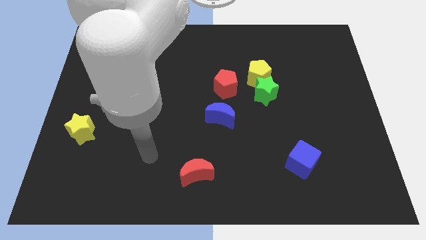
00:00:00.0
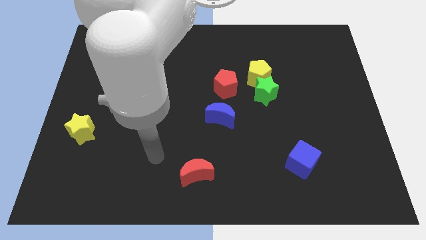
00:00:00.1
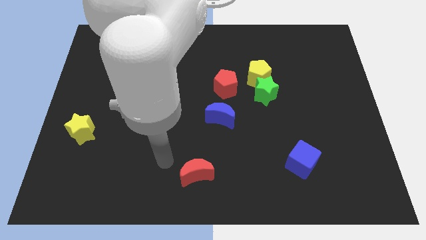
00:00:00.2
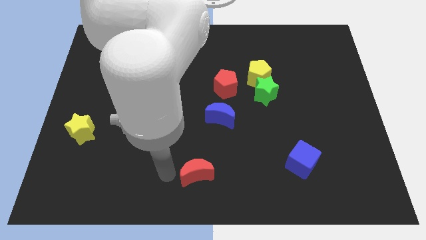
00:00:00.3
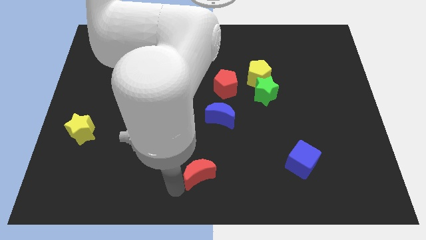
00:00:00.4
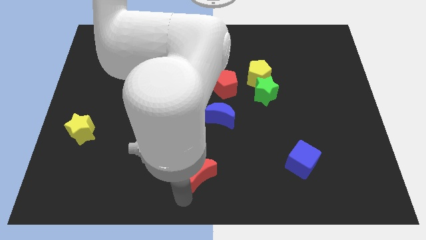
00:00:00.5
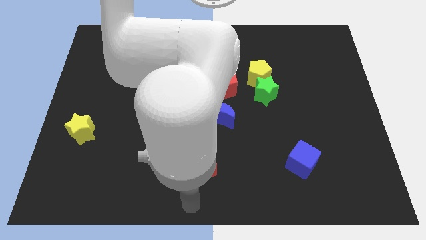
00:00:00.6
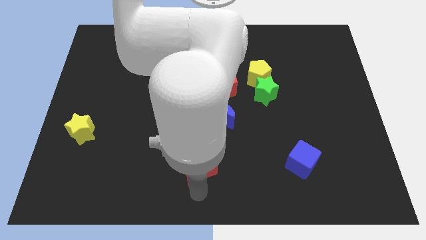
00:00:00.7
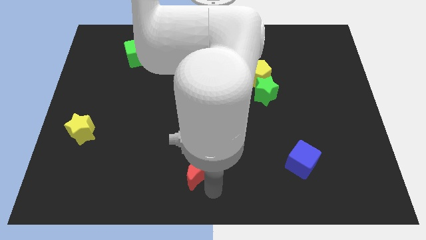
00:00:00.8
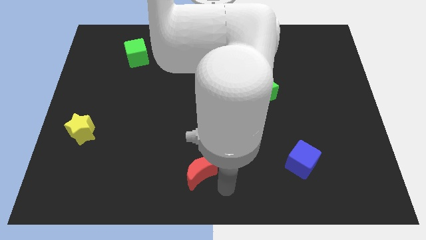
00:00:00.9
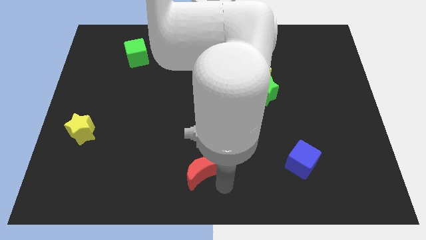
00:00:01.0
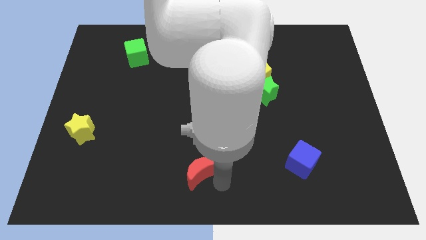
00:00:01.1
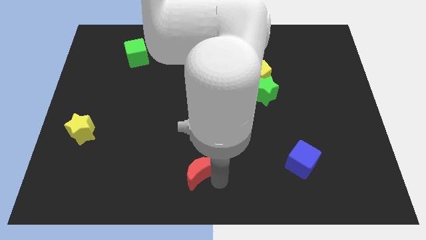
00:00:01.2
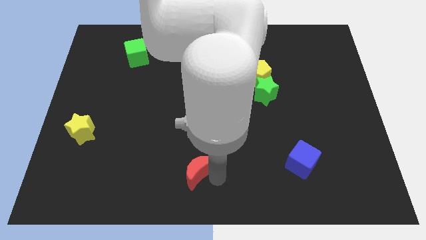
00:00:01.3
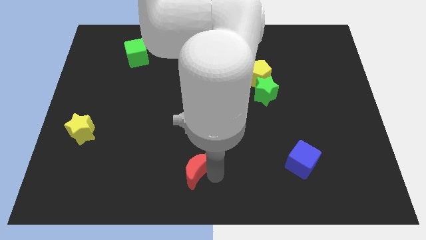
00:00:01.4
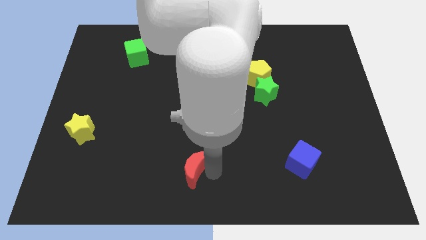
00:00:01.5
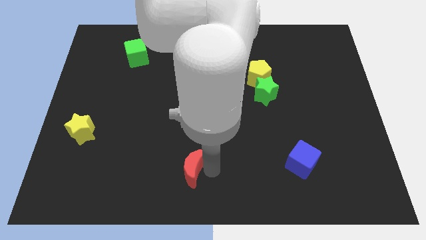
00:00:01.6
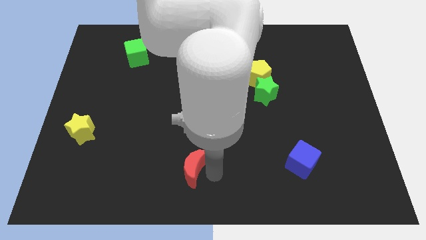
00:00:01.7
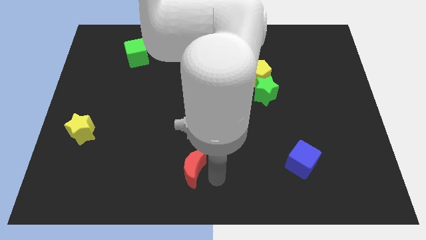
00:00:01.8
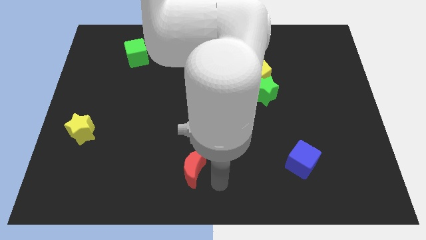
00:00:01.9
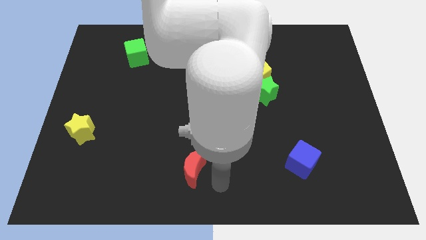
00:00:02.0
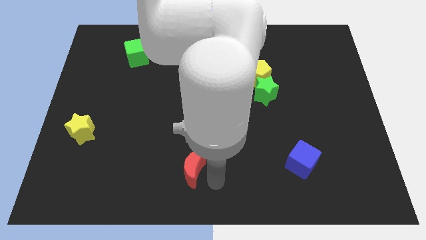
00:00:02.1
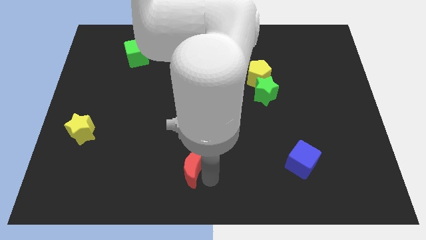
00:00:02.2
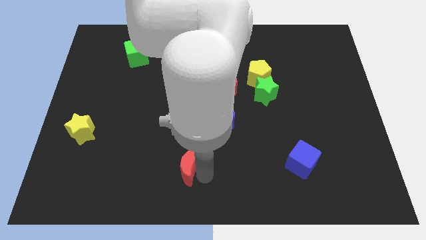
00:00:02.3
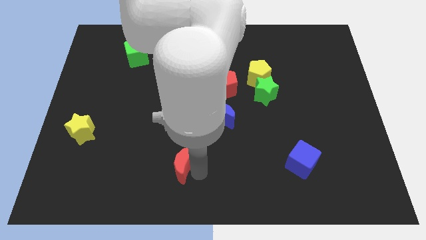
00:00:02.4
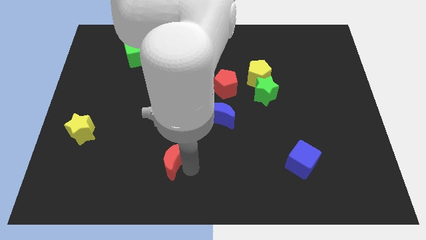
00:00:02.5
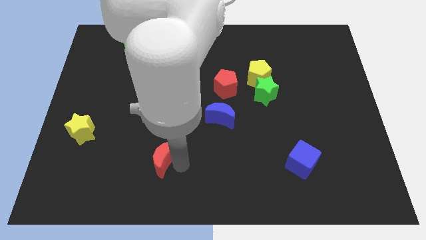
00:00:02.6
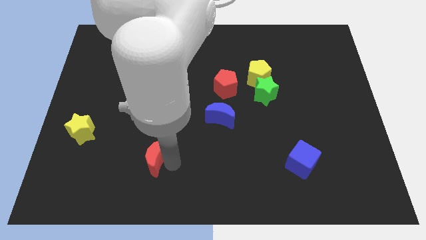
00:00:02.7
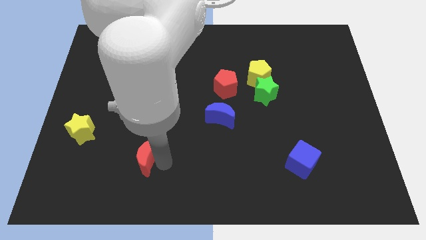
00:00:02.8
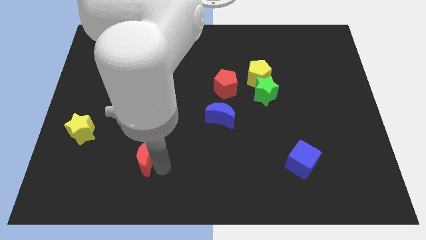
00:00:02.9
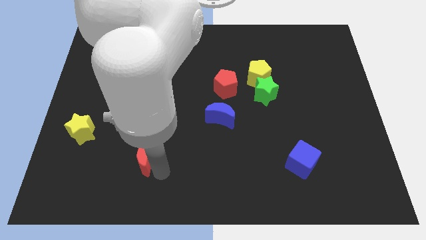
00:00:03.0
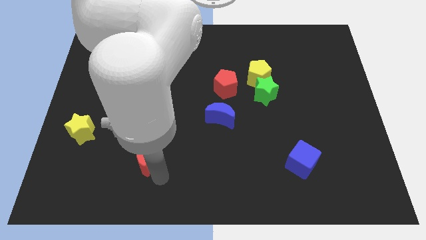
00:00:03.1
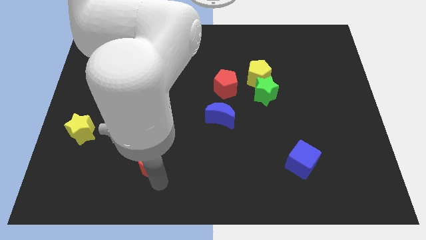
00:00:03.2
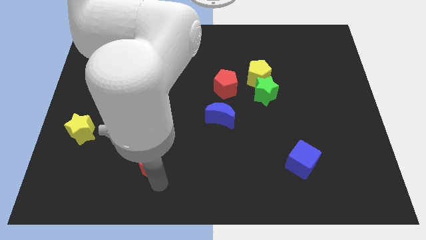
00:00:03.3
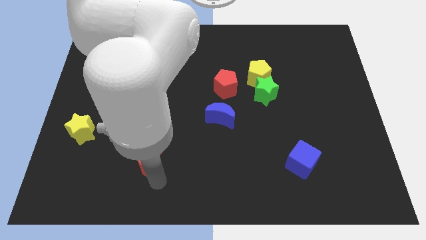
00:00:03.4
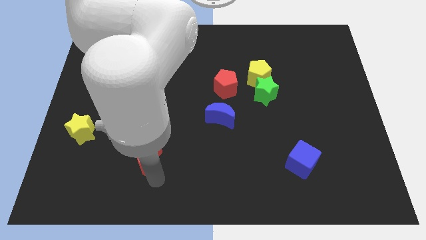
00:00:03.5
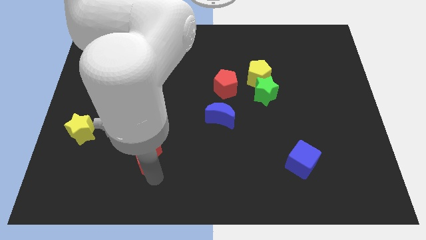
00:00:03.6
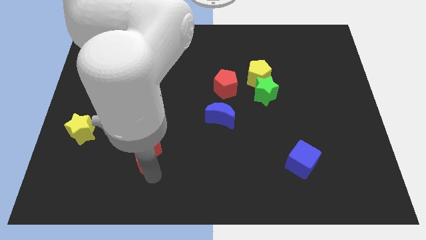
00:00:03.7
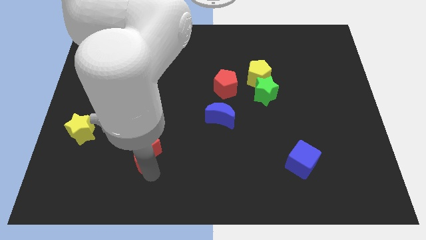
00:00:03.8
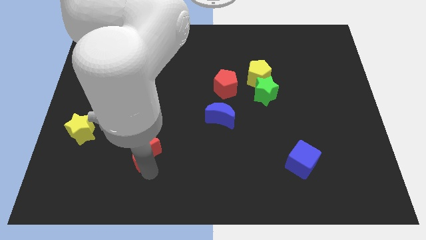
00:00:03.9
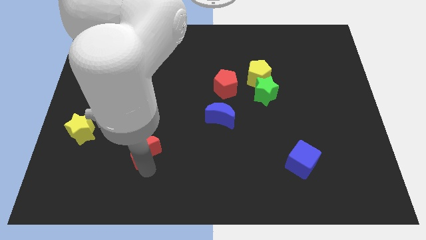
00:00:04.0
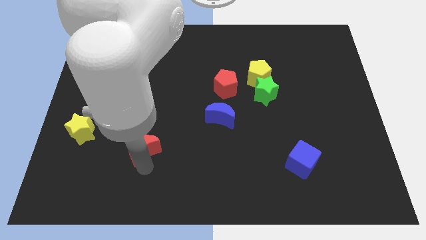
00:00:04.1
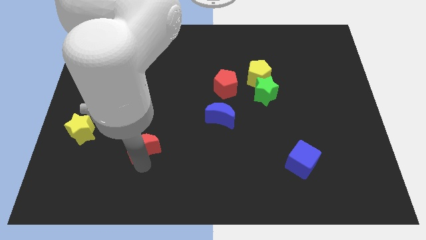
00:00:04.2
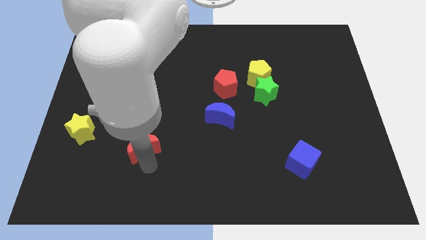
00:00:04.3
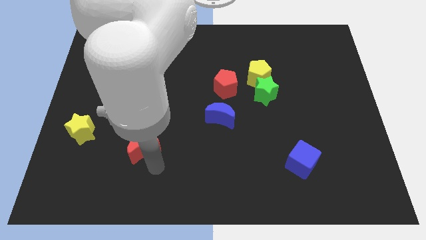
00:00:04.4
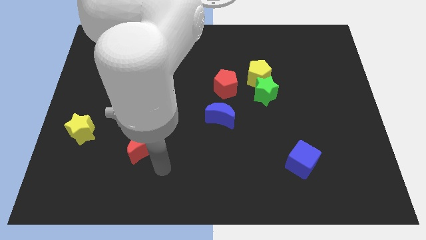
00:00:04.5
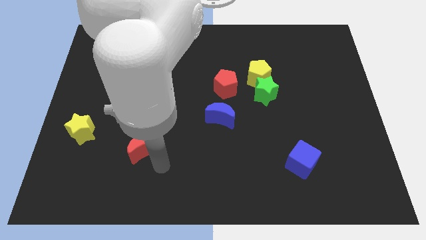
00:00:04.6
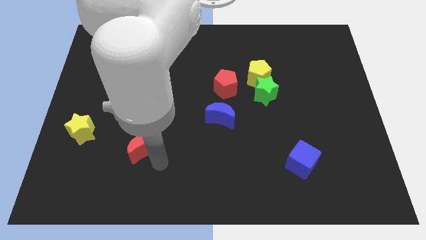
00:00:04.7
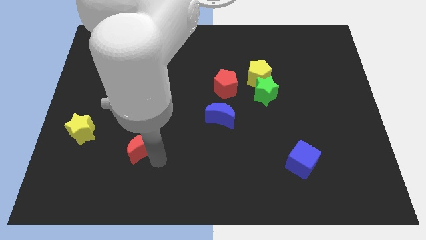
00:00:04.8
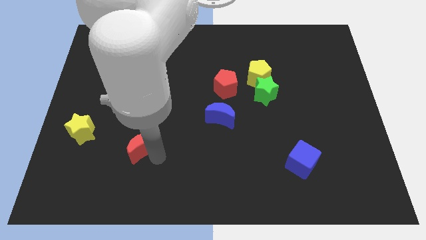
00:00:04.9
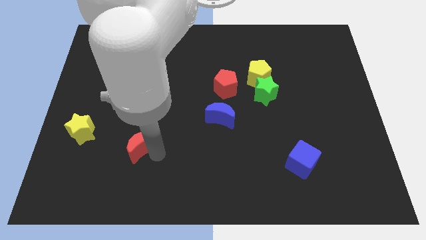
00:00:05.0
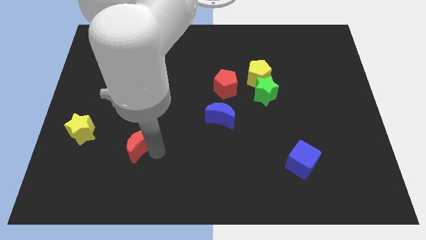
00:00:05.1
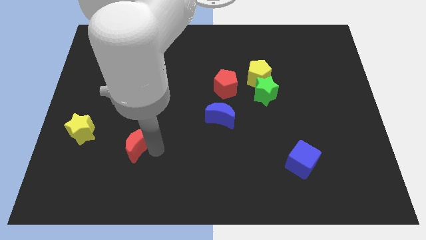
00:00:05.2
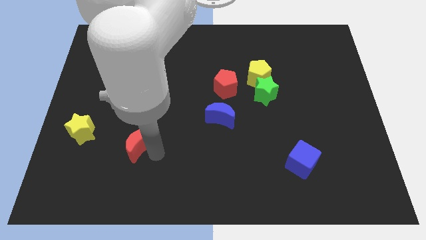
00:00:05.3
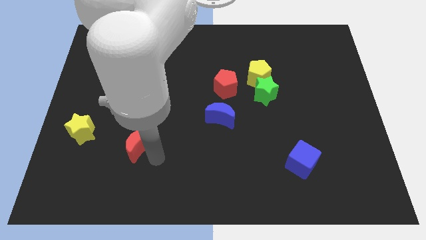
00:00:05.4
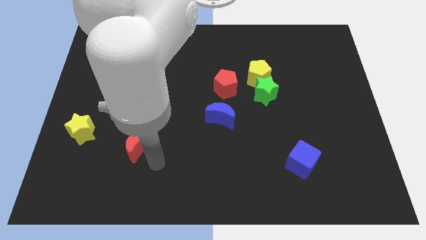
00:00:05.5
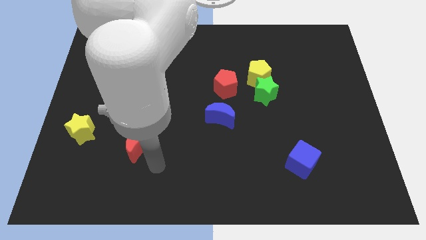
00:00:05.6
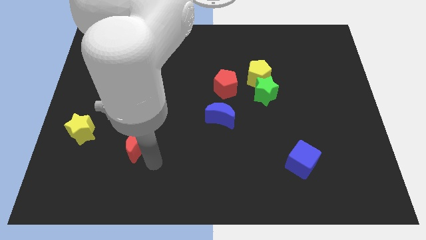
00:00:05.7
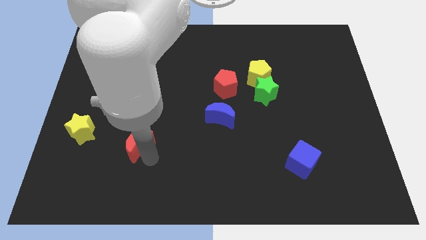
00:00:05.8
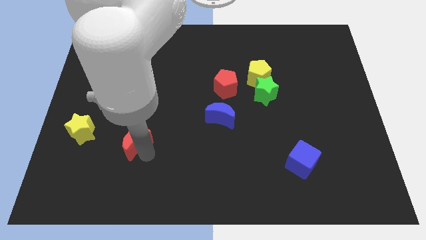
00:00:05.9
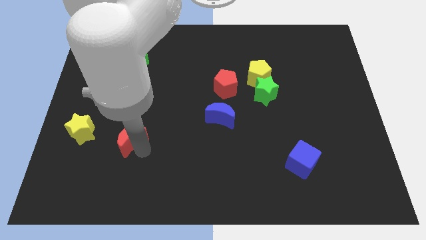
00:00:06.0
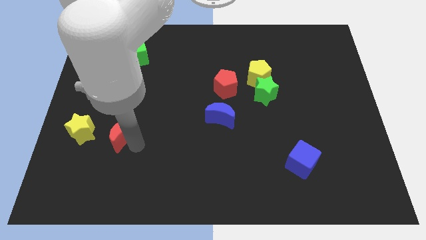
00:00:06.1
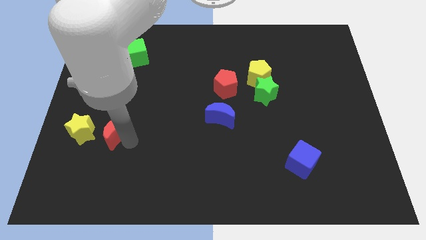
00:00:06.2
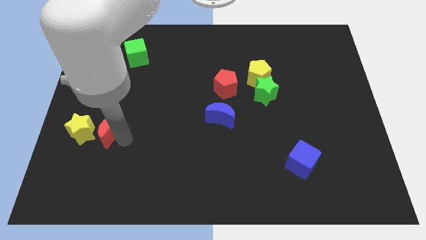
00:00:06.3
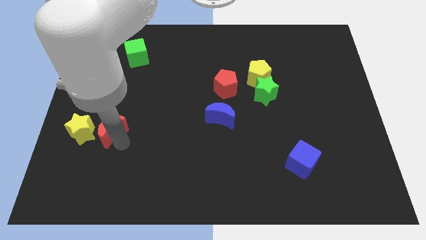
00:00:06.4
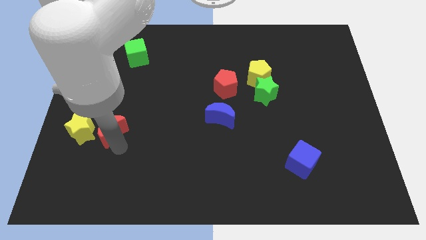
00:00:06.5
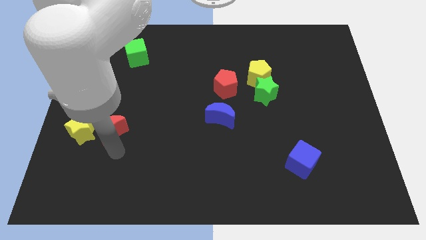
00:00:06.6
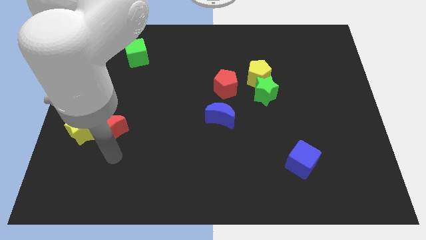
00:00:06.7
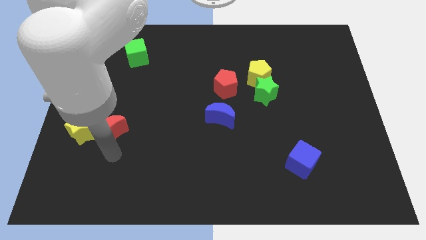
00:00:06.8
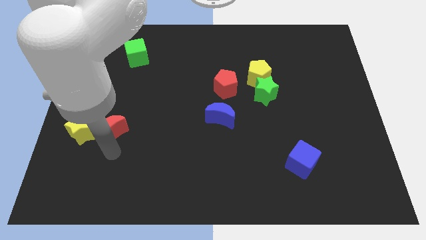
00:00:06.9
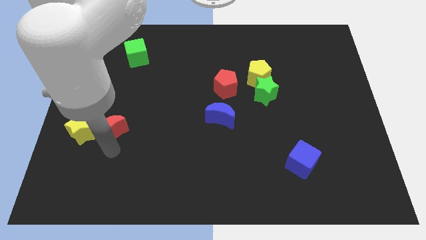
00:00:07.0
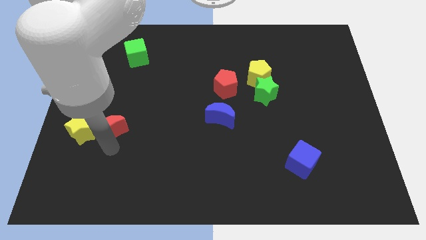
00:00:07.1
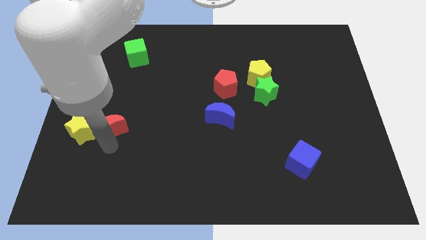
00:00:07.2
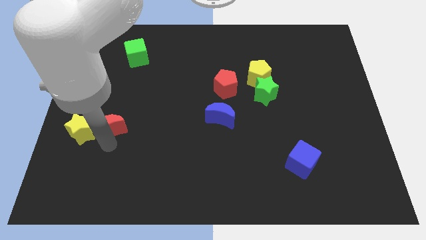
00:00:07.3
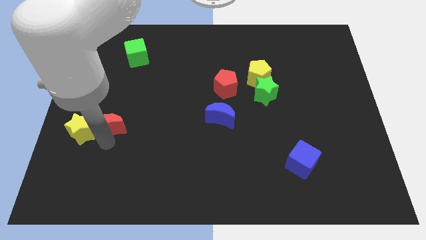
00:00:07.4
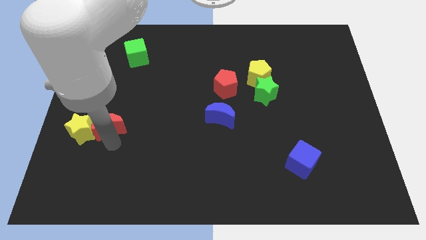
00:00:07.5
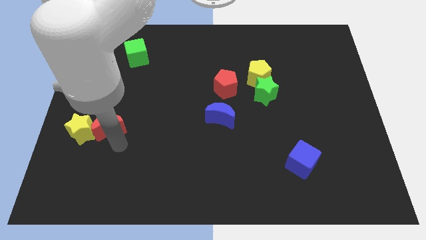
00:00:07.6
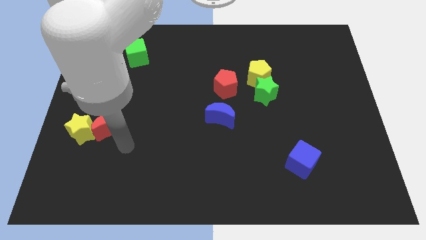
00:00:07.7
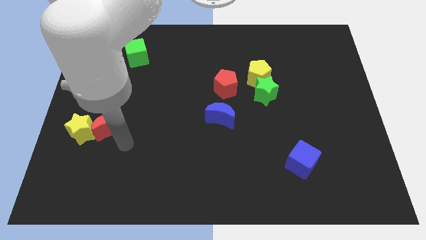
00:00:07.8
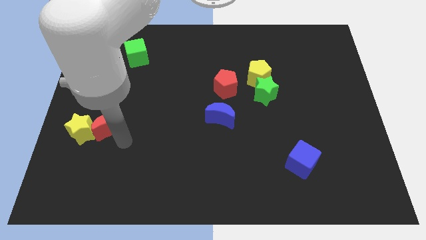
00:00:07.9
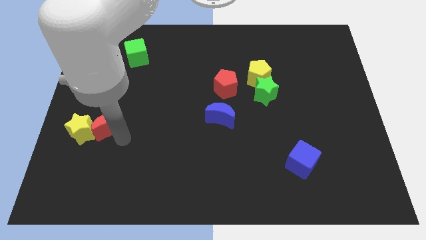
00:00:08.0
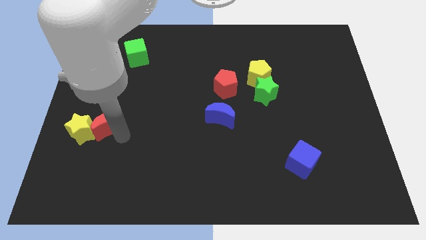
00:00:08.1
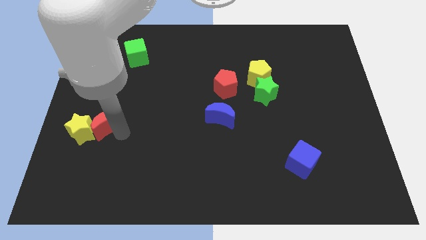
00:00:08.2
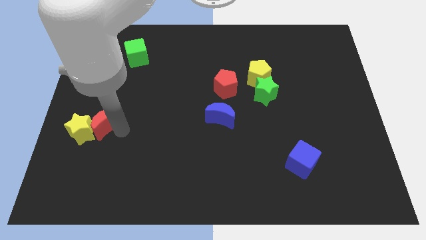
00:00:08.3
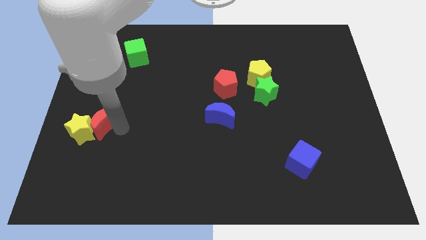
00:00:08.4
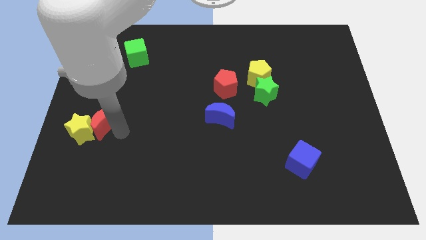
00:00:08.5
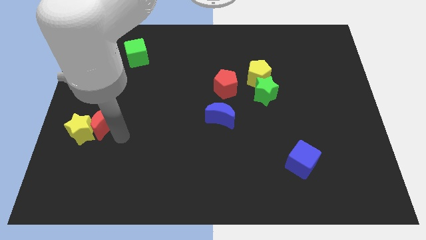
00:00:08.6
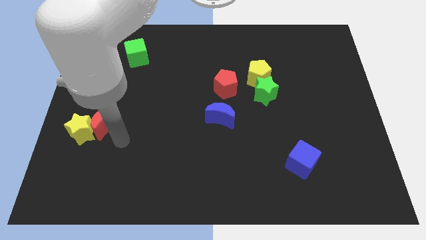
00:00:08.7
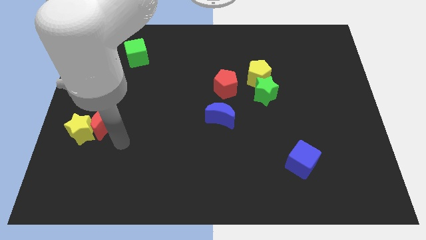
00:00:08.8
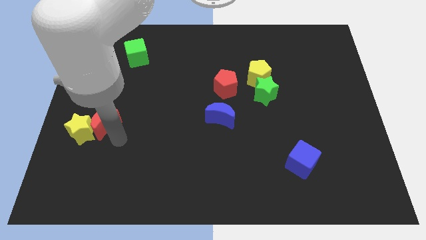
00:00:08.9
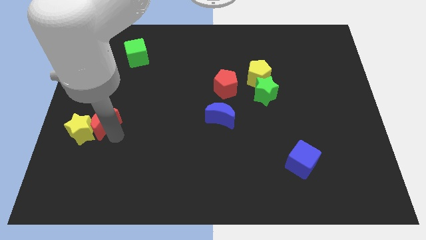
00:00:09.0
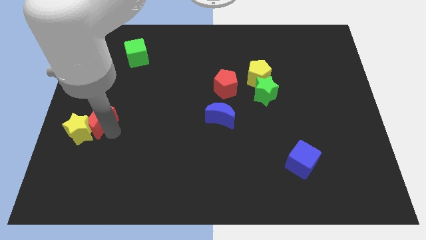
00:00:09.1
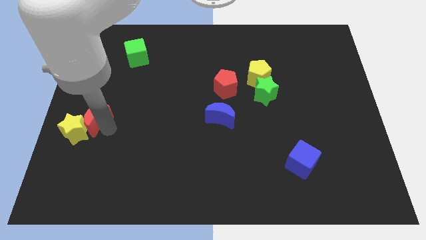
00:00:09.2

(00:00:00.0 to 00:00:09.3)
push the red moon to the left side
